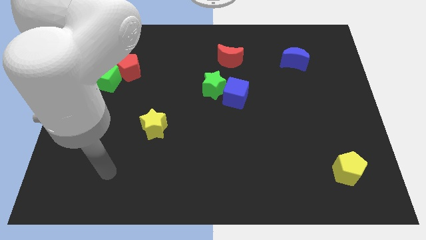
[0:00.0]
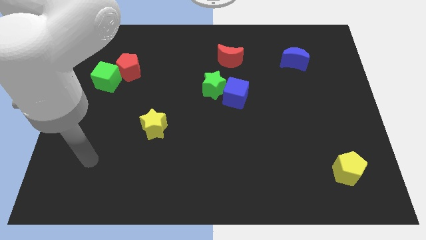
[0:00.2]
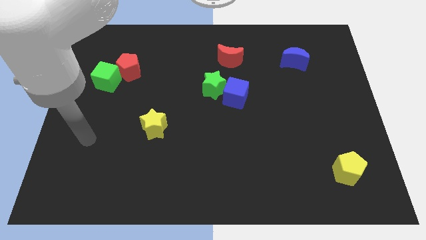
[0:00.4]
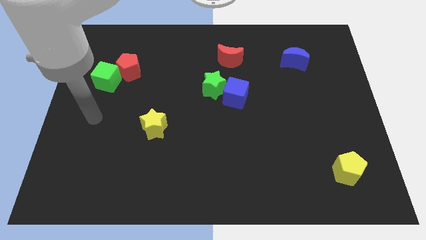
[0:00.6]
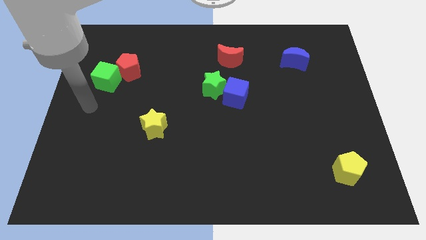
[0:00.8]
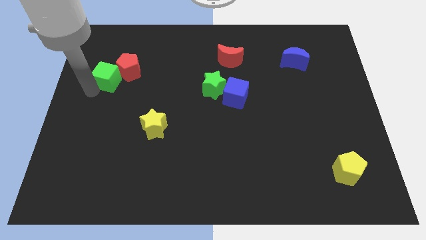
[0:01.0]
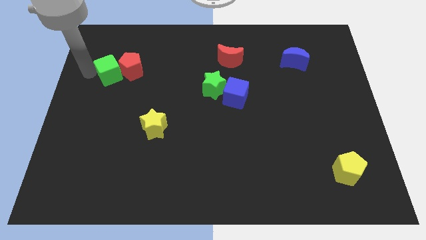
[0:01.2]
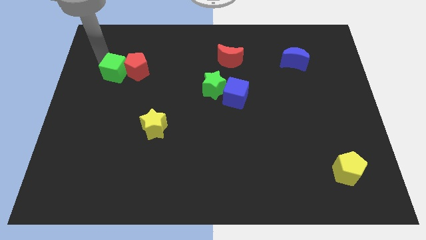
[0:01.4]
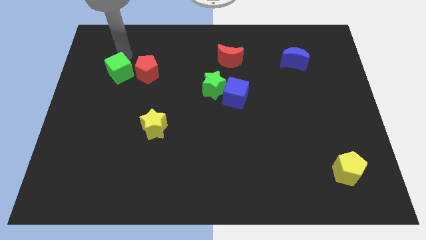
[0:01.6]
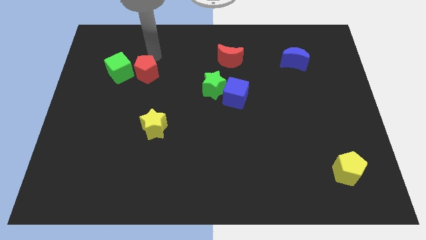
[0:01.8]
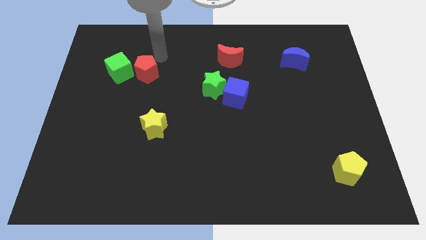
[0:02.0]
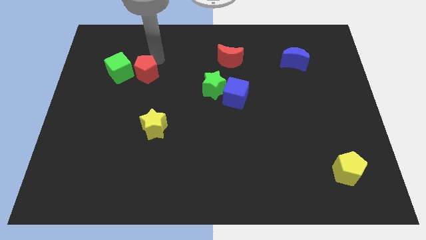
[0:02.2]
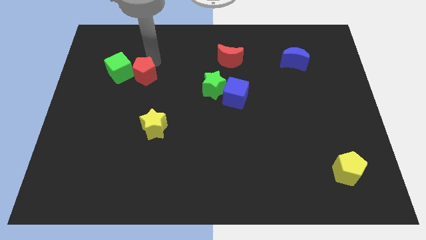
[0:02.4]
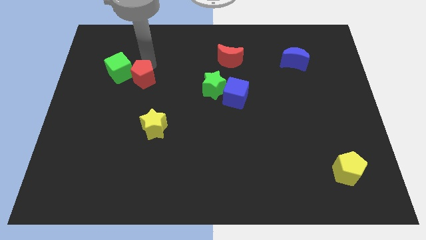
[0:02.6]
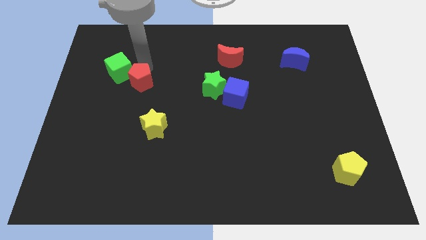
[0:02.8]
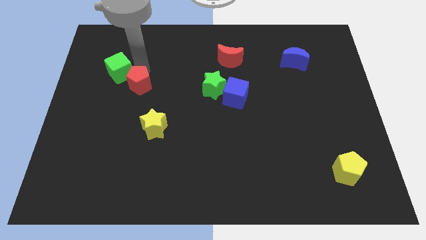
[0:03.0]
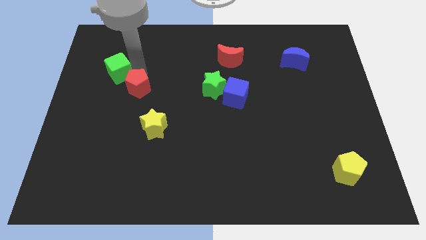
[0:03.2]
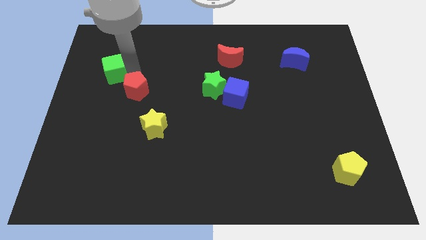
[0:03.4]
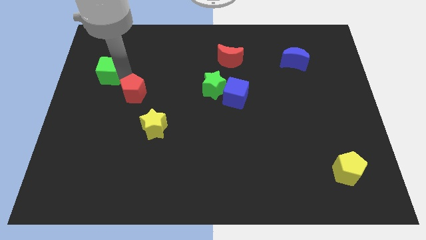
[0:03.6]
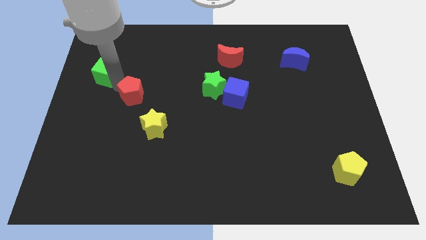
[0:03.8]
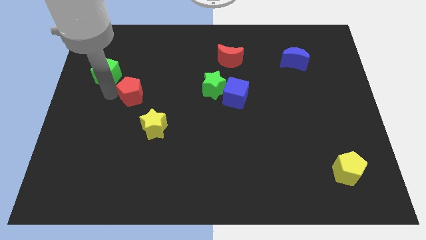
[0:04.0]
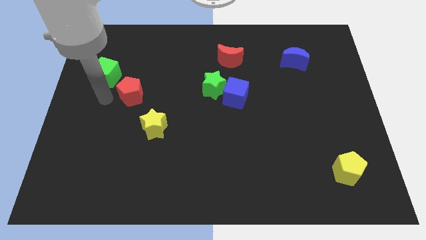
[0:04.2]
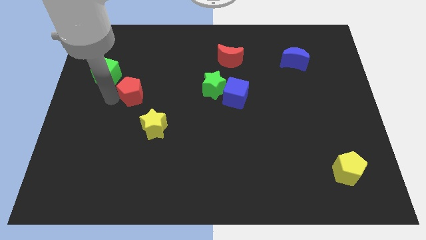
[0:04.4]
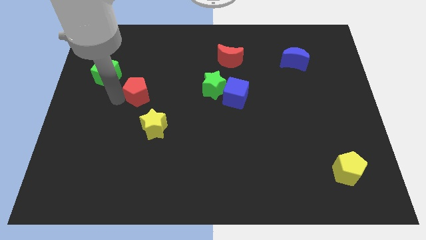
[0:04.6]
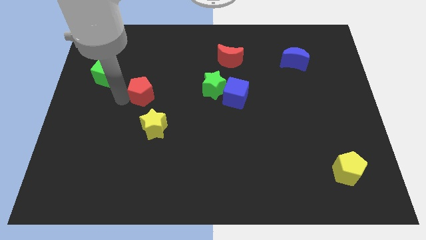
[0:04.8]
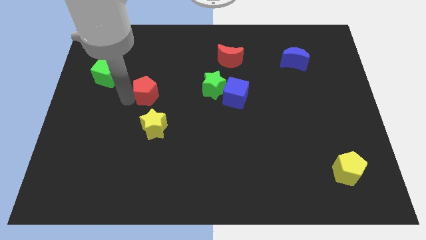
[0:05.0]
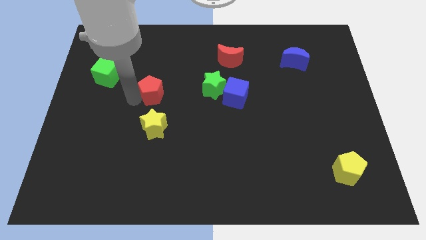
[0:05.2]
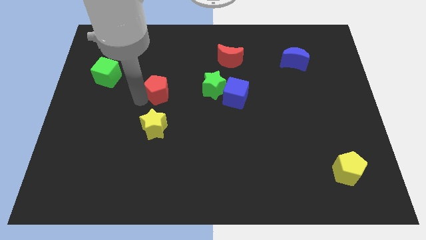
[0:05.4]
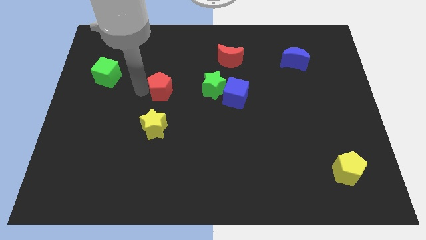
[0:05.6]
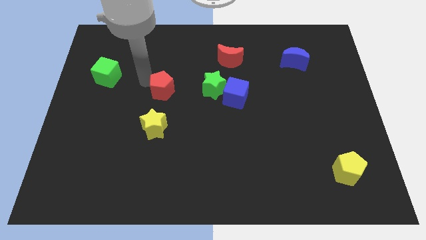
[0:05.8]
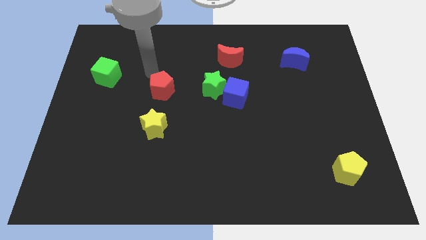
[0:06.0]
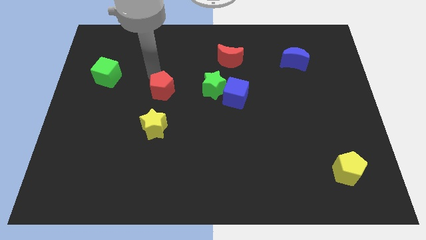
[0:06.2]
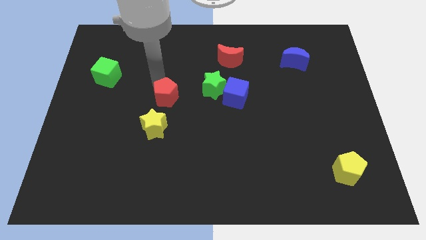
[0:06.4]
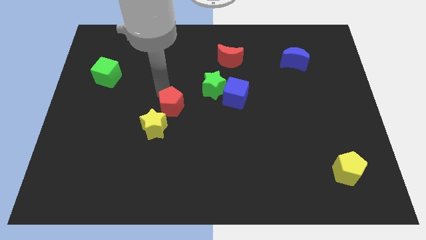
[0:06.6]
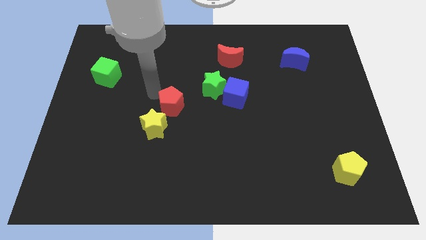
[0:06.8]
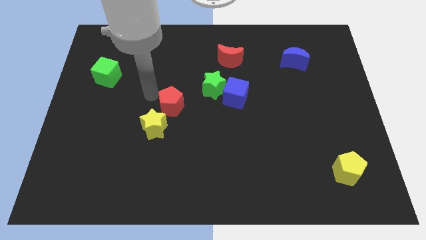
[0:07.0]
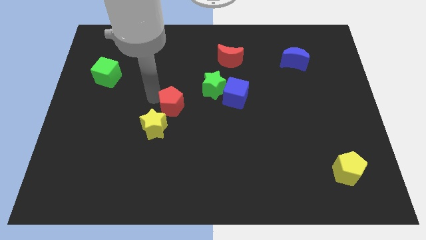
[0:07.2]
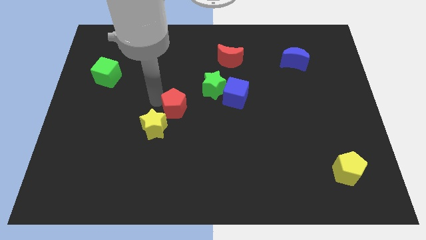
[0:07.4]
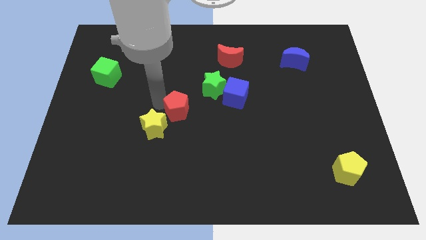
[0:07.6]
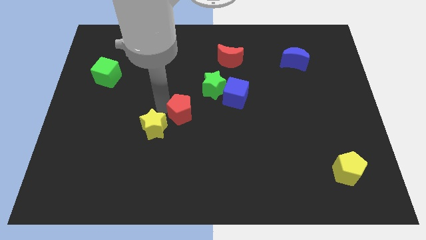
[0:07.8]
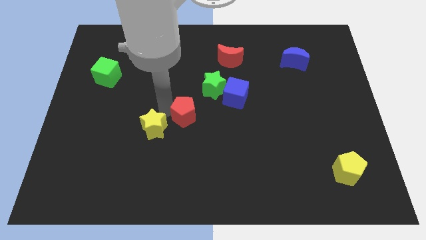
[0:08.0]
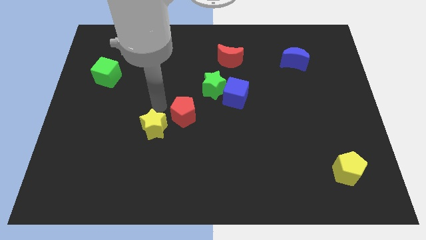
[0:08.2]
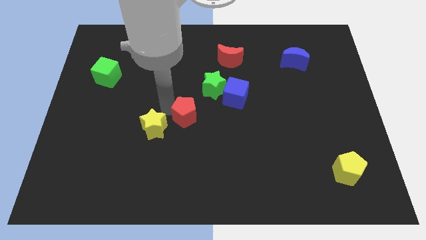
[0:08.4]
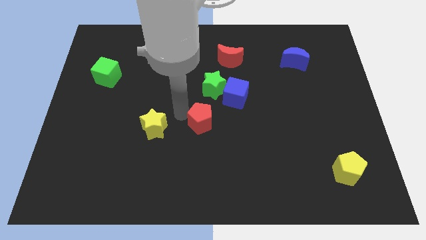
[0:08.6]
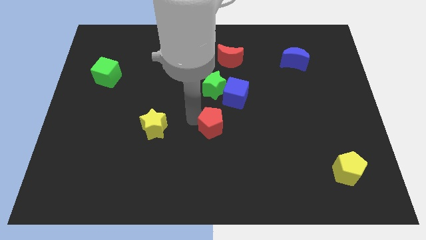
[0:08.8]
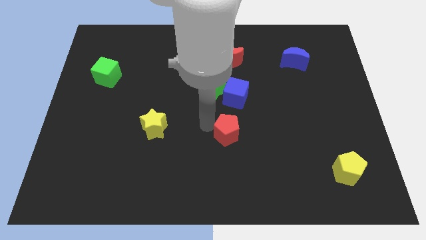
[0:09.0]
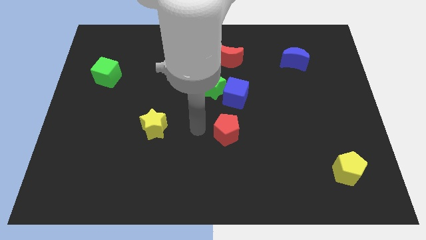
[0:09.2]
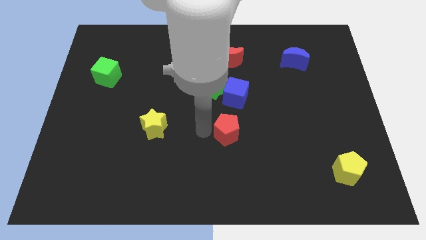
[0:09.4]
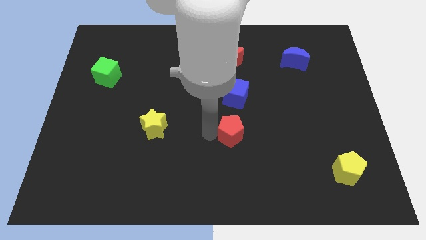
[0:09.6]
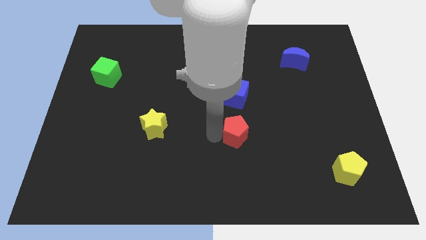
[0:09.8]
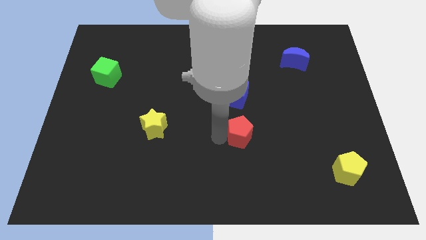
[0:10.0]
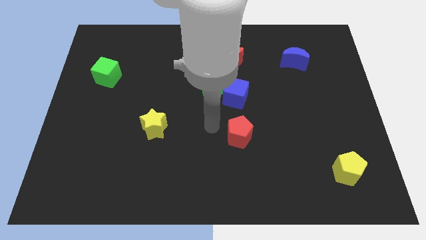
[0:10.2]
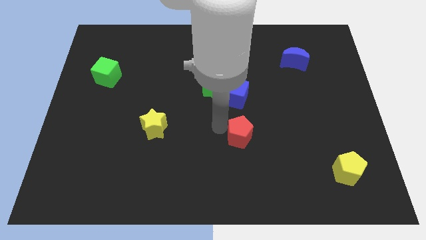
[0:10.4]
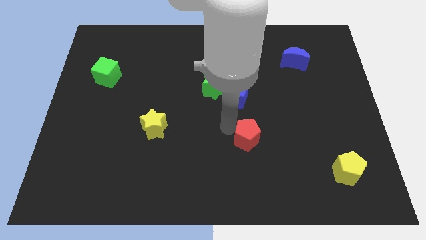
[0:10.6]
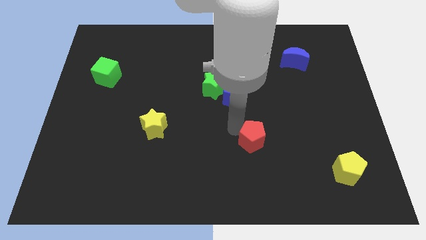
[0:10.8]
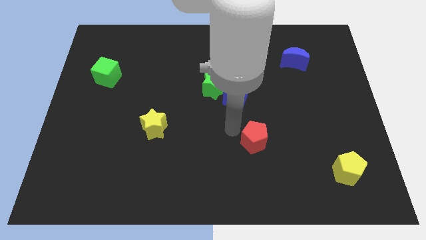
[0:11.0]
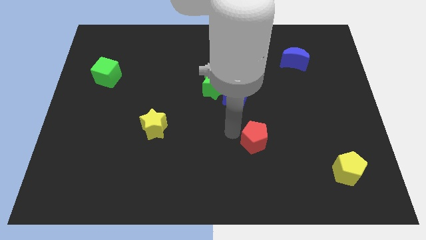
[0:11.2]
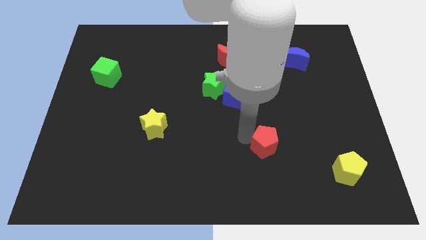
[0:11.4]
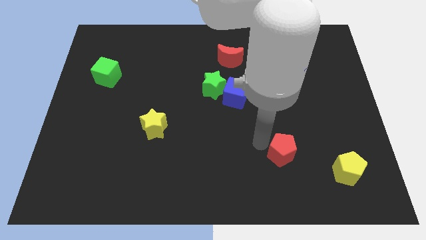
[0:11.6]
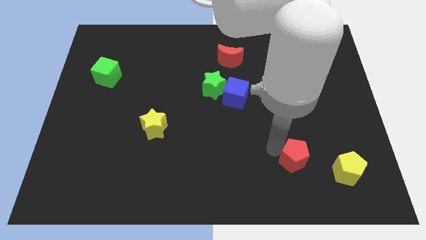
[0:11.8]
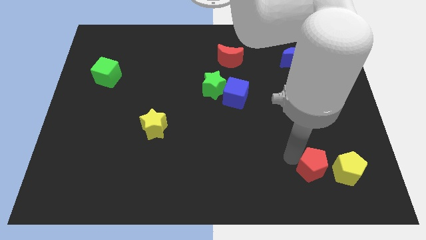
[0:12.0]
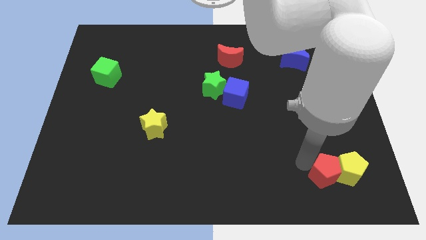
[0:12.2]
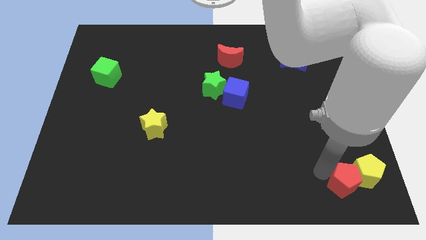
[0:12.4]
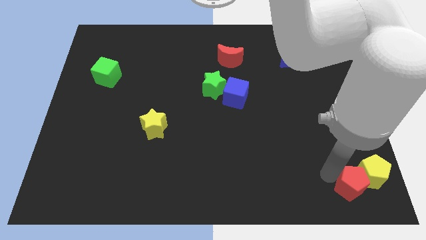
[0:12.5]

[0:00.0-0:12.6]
move the red pentagon to the bottom right

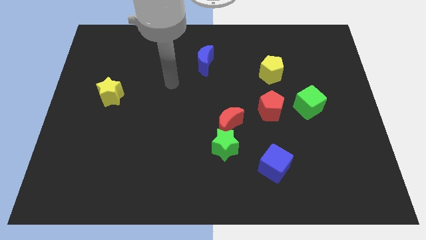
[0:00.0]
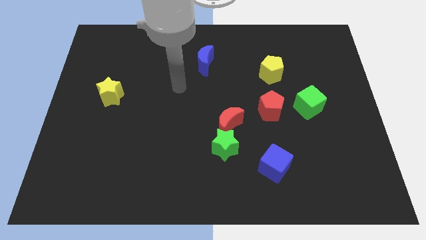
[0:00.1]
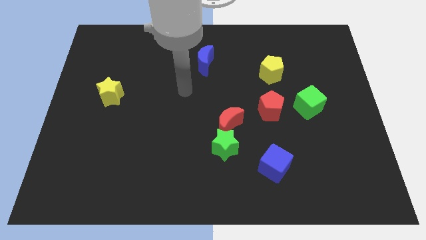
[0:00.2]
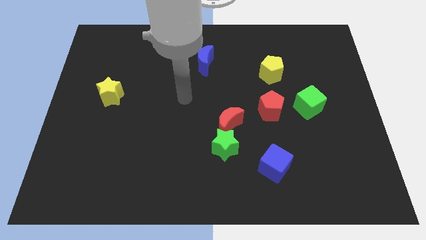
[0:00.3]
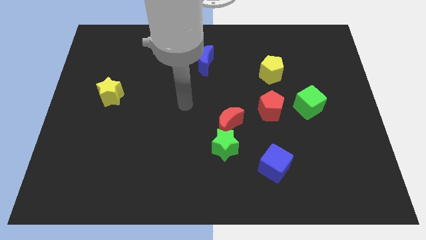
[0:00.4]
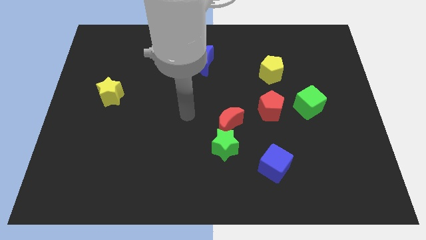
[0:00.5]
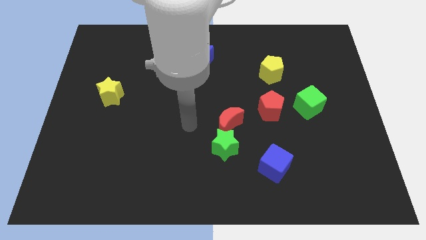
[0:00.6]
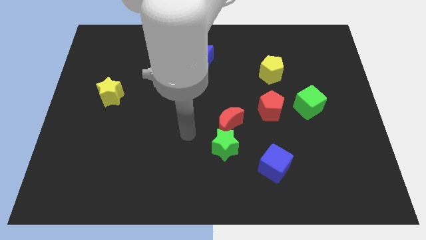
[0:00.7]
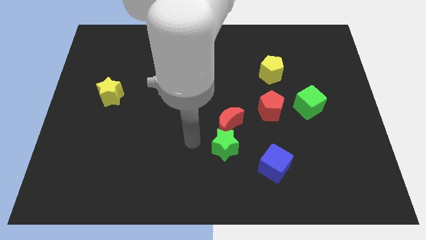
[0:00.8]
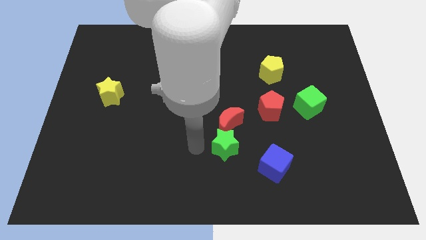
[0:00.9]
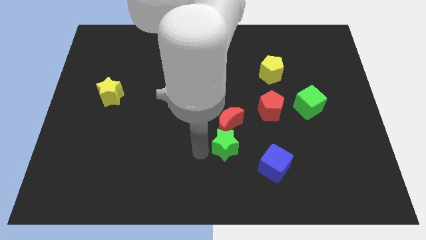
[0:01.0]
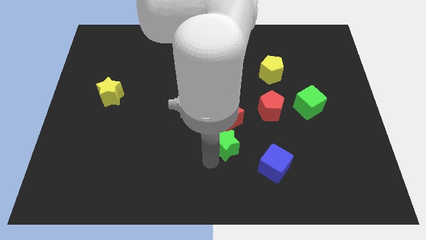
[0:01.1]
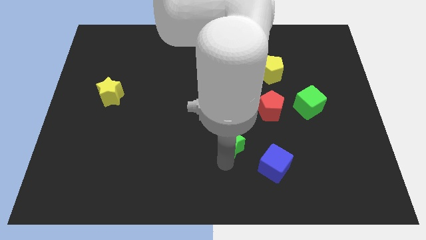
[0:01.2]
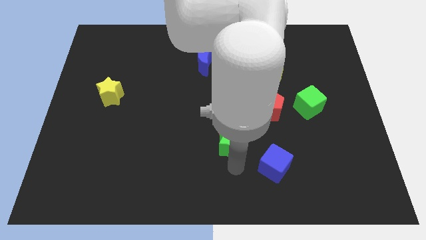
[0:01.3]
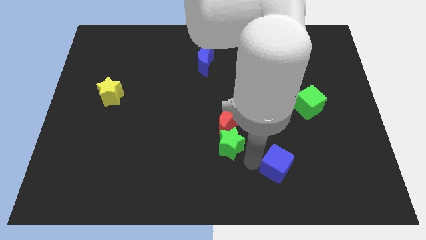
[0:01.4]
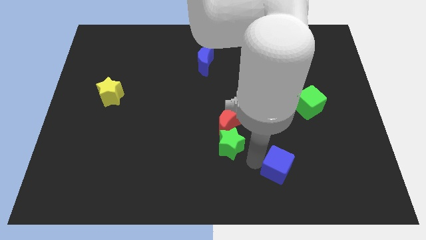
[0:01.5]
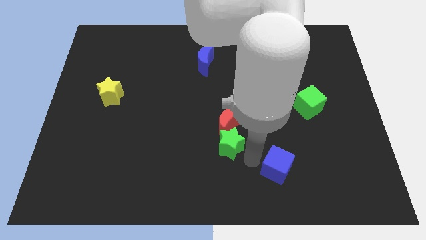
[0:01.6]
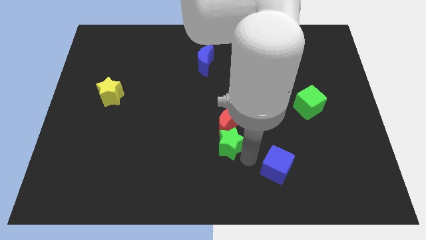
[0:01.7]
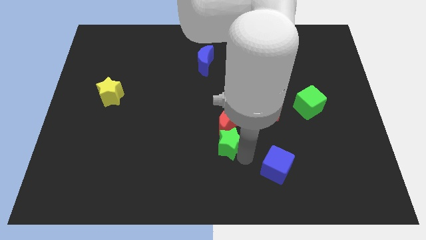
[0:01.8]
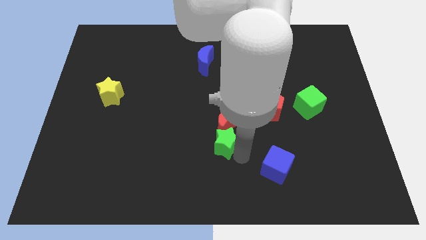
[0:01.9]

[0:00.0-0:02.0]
put the green star to the middle of the board
